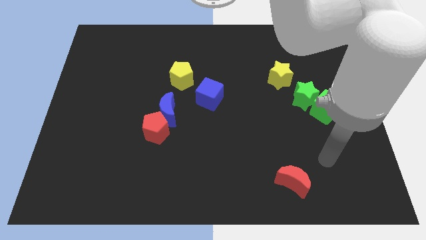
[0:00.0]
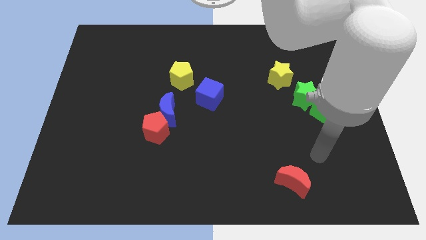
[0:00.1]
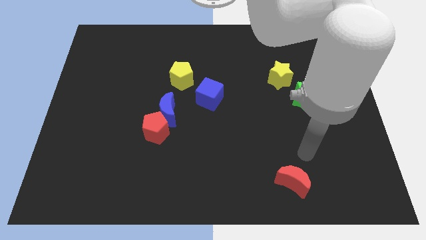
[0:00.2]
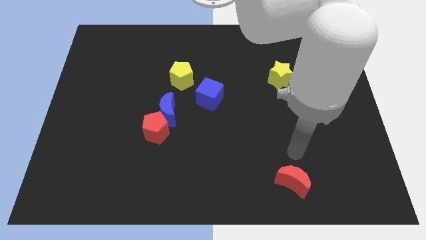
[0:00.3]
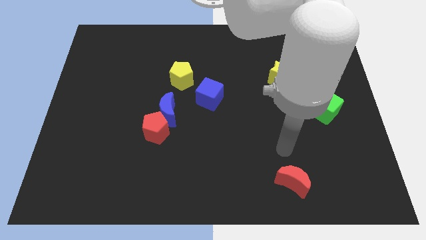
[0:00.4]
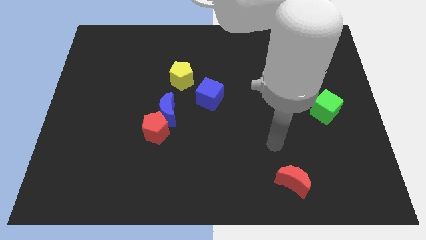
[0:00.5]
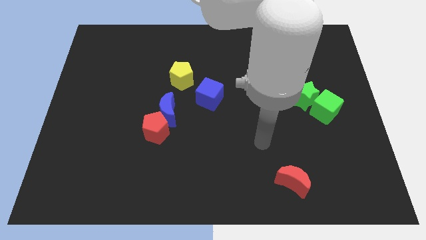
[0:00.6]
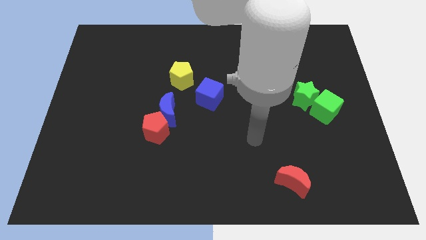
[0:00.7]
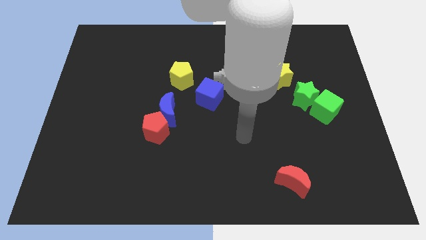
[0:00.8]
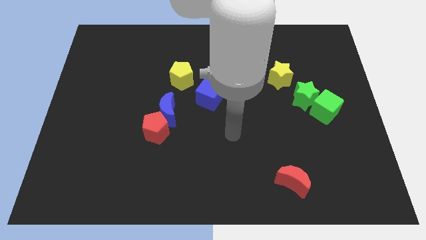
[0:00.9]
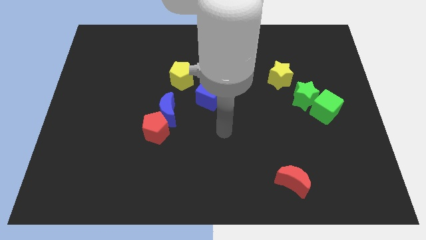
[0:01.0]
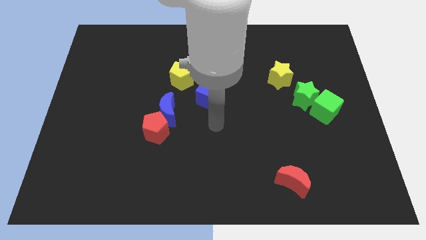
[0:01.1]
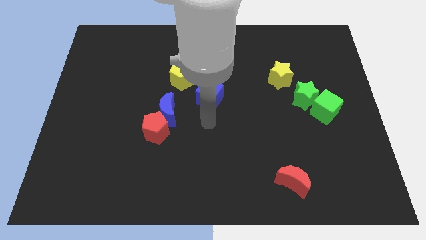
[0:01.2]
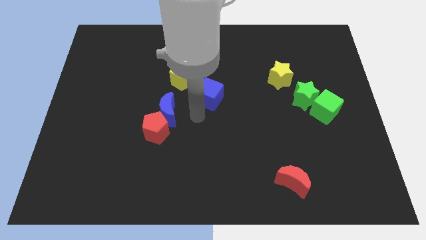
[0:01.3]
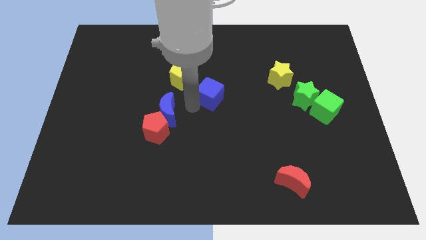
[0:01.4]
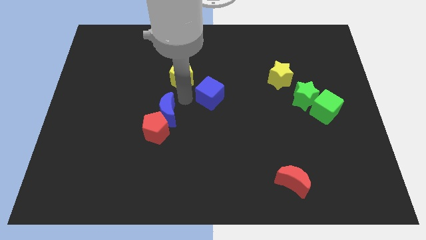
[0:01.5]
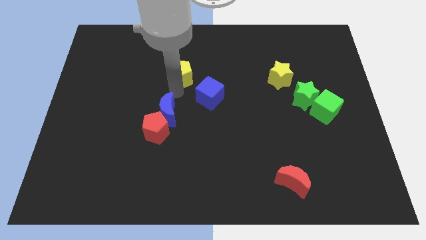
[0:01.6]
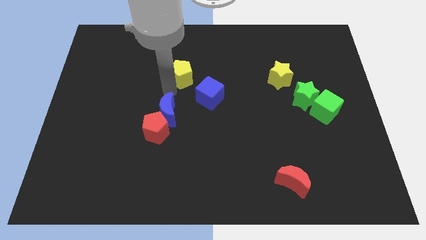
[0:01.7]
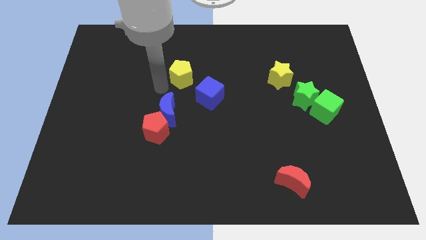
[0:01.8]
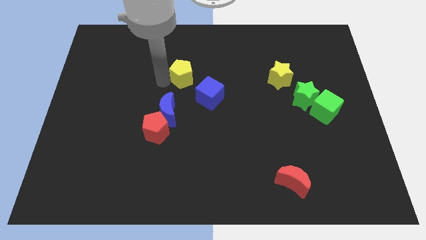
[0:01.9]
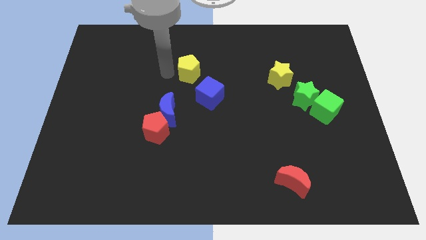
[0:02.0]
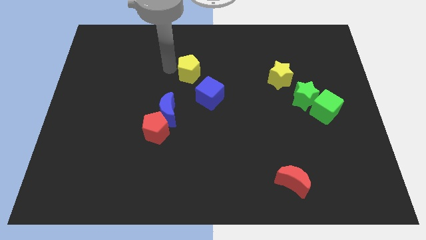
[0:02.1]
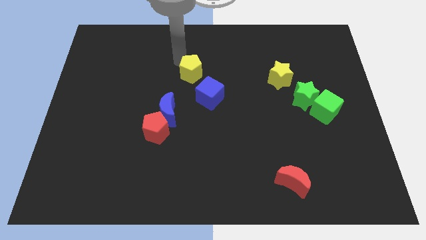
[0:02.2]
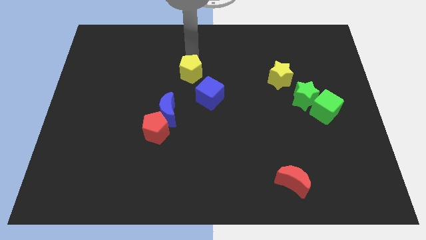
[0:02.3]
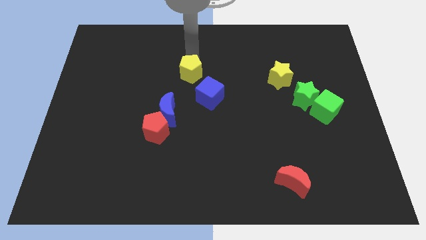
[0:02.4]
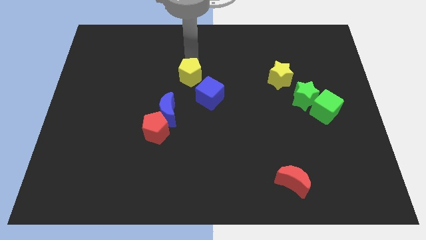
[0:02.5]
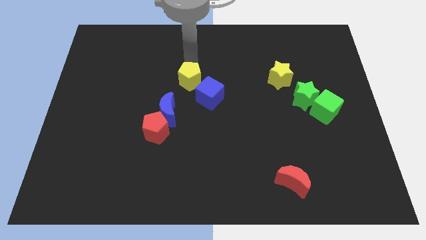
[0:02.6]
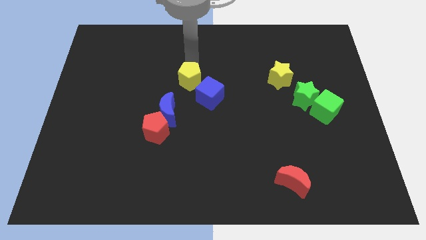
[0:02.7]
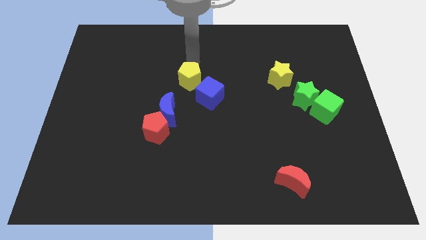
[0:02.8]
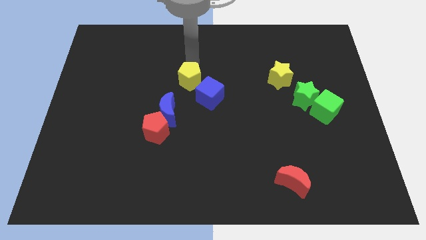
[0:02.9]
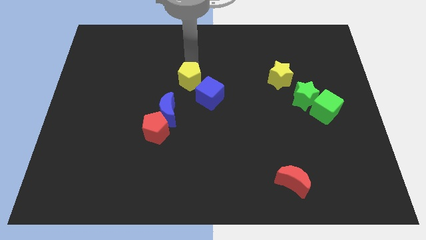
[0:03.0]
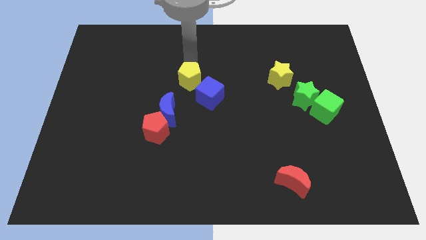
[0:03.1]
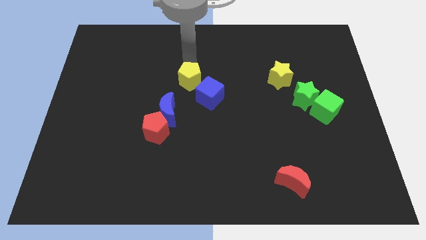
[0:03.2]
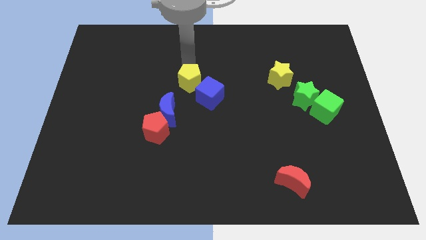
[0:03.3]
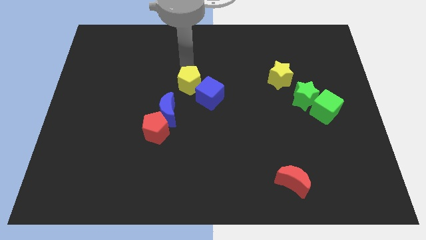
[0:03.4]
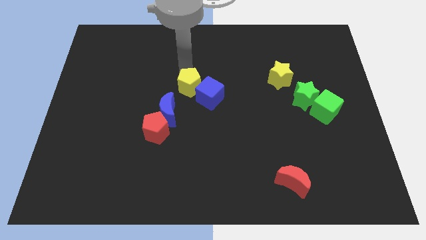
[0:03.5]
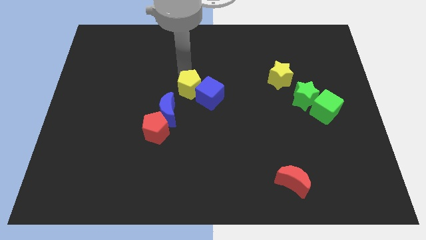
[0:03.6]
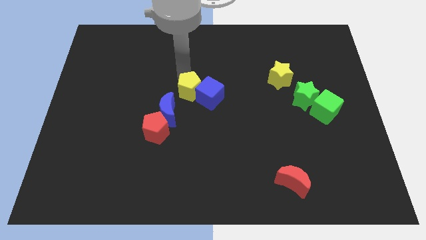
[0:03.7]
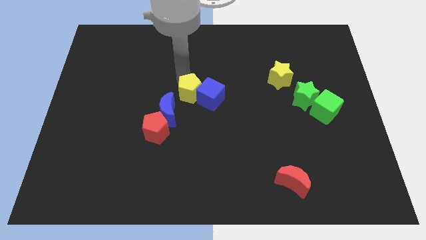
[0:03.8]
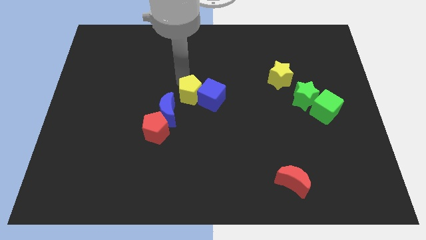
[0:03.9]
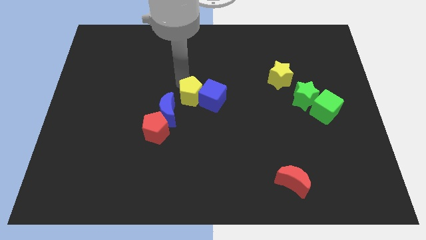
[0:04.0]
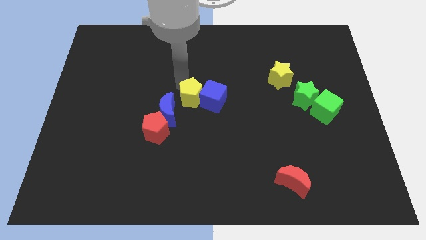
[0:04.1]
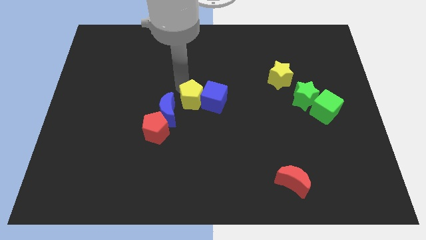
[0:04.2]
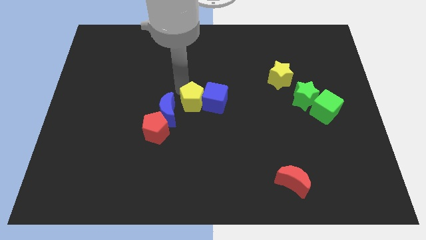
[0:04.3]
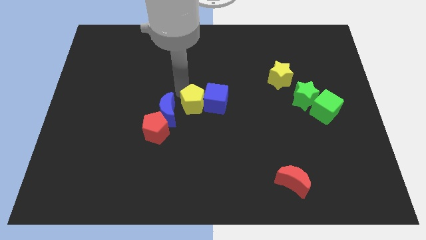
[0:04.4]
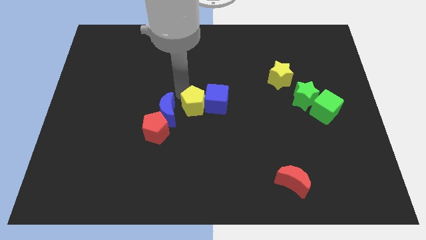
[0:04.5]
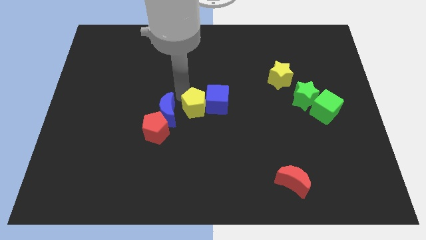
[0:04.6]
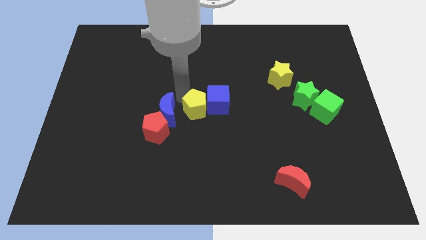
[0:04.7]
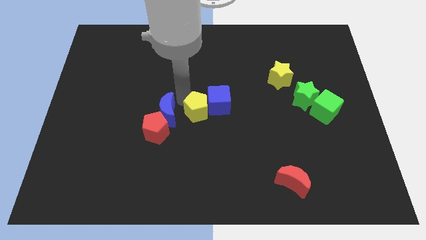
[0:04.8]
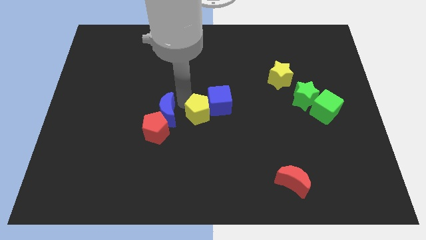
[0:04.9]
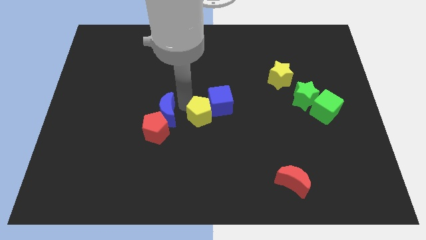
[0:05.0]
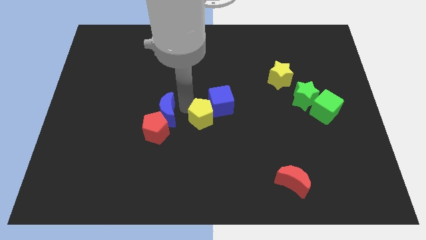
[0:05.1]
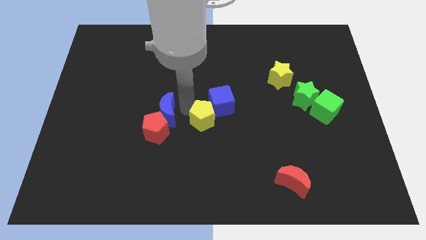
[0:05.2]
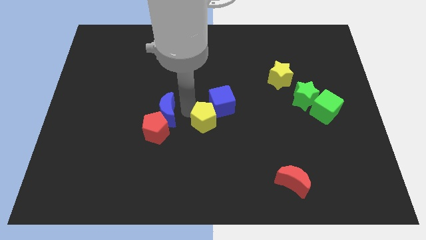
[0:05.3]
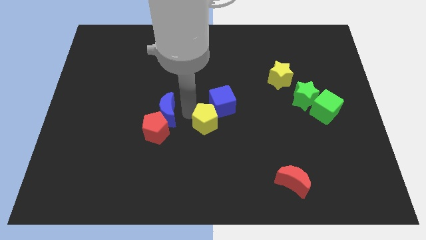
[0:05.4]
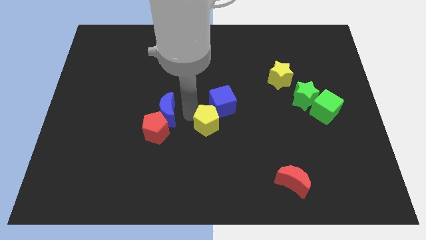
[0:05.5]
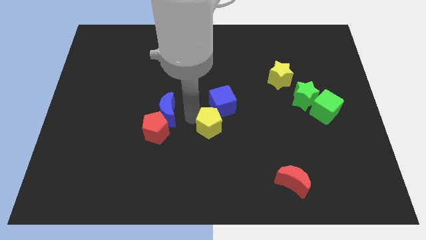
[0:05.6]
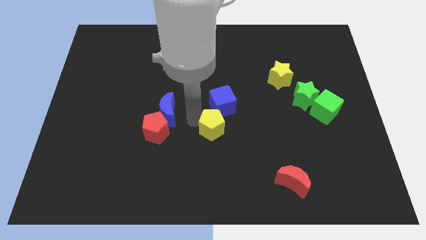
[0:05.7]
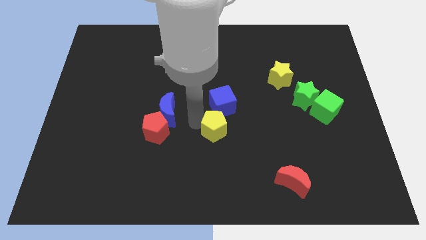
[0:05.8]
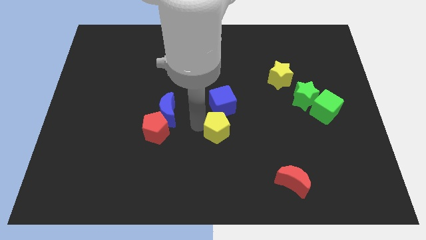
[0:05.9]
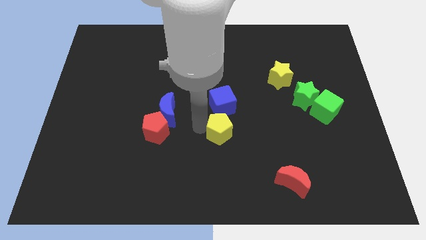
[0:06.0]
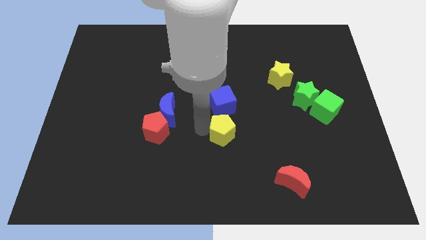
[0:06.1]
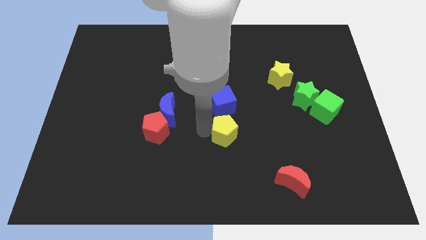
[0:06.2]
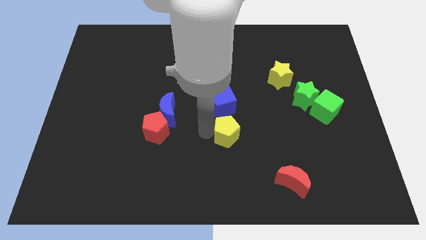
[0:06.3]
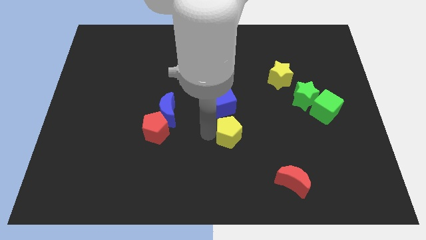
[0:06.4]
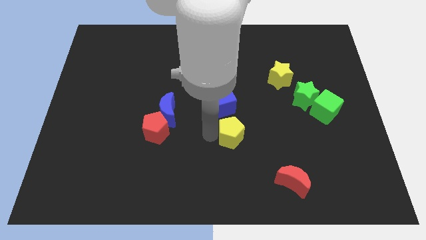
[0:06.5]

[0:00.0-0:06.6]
slide the yellow pentagon downwards and then to the right

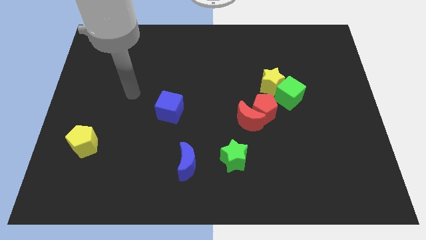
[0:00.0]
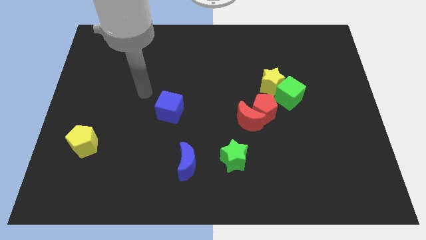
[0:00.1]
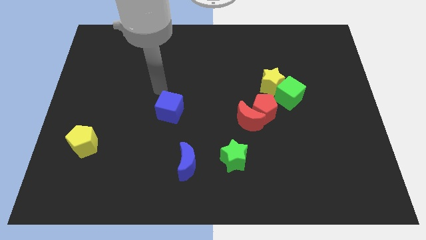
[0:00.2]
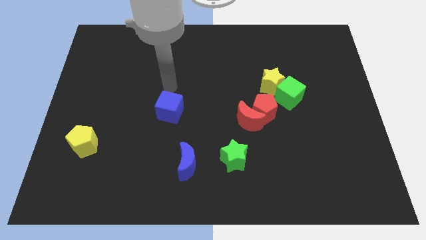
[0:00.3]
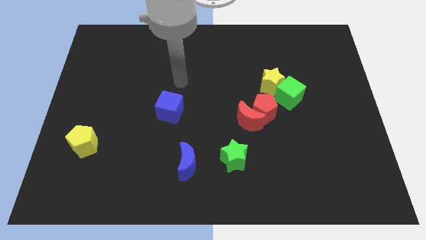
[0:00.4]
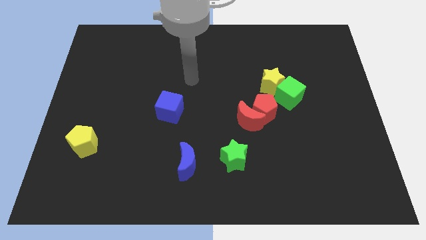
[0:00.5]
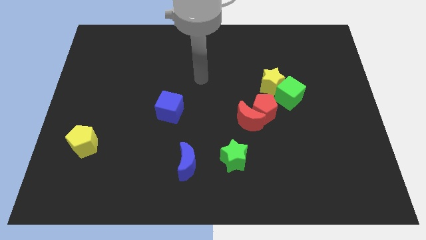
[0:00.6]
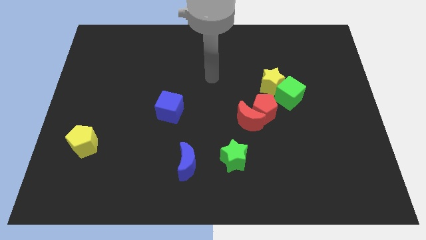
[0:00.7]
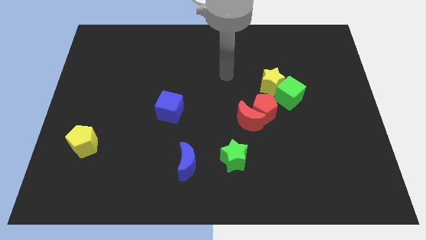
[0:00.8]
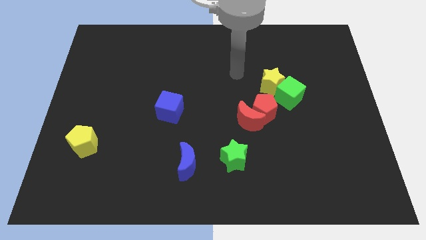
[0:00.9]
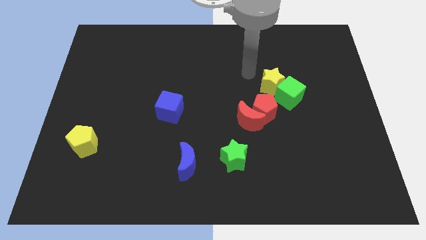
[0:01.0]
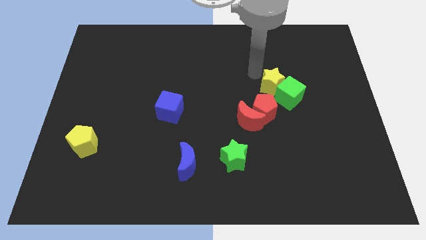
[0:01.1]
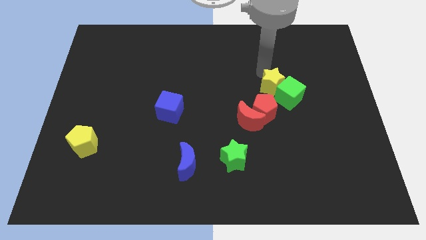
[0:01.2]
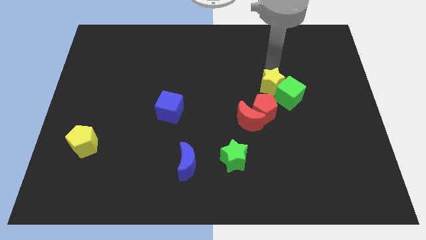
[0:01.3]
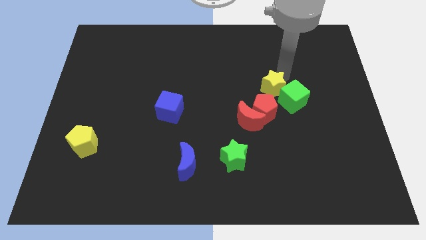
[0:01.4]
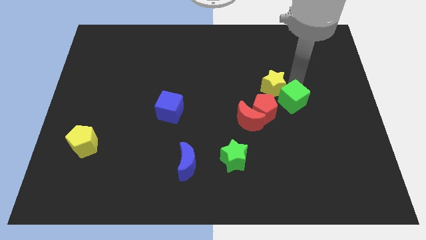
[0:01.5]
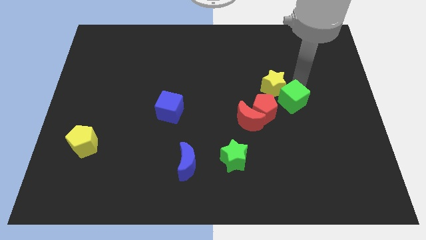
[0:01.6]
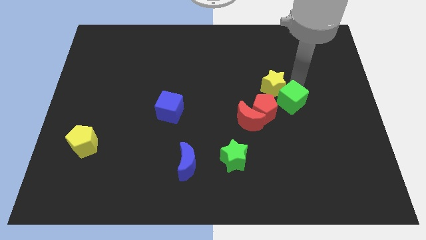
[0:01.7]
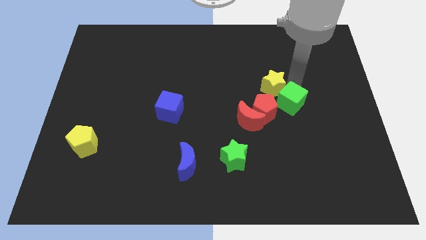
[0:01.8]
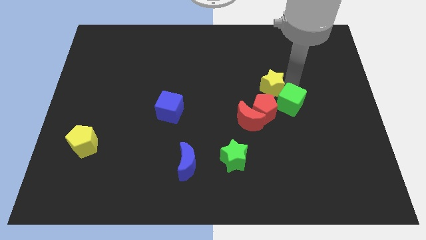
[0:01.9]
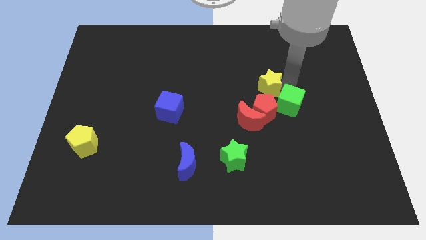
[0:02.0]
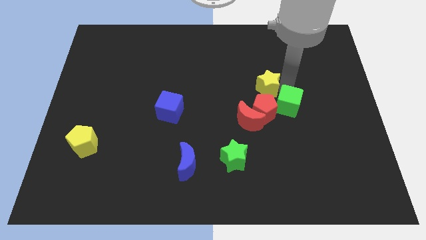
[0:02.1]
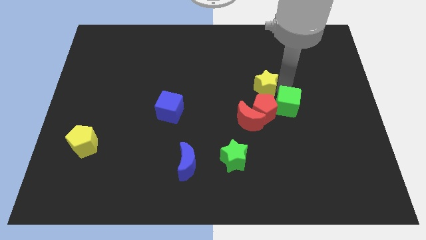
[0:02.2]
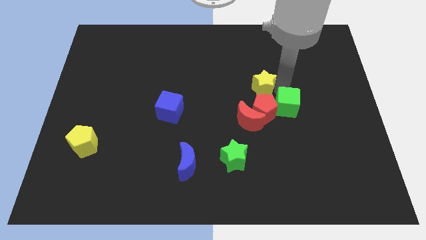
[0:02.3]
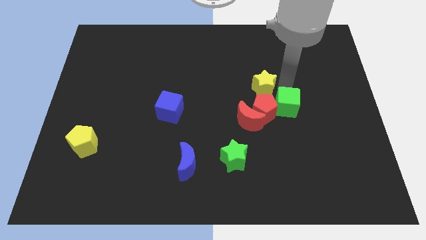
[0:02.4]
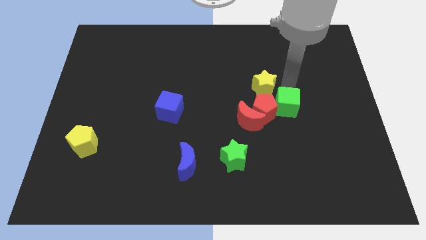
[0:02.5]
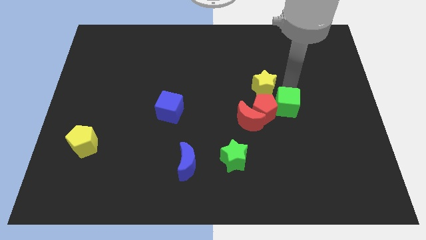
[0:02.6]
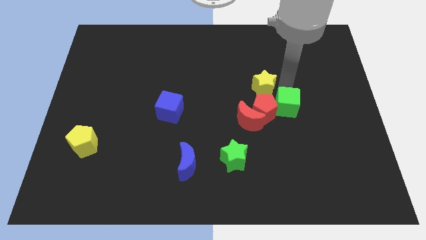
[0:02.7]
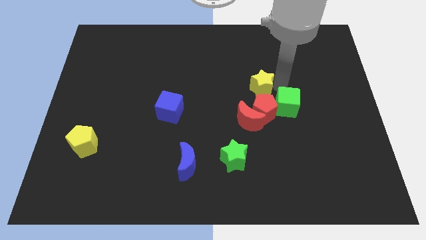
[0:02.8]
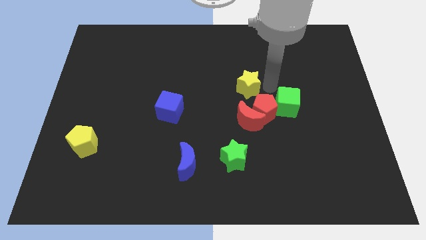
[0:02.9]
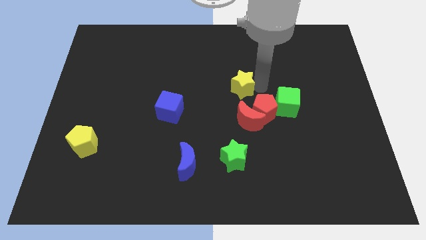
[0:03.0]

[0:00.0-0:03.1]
push the yellow star left a bit
